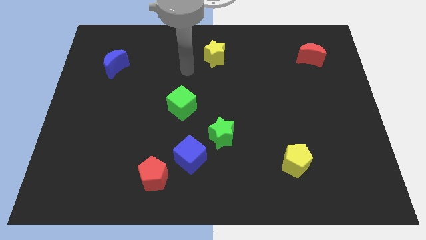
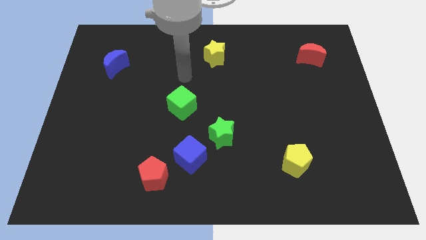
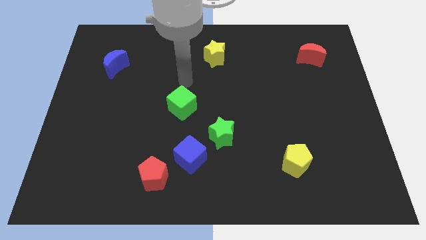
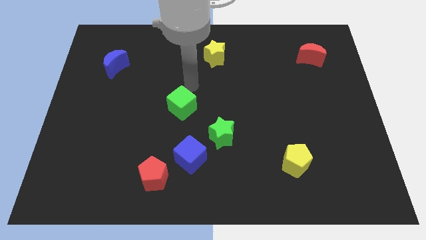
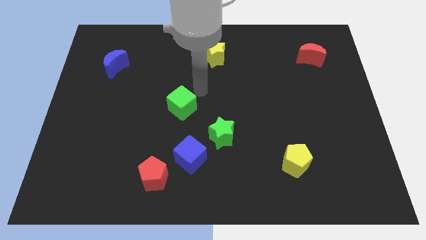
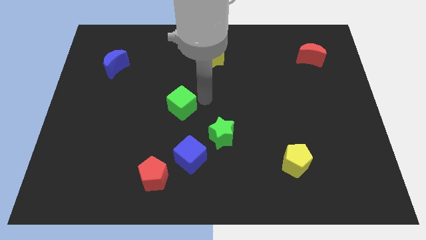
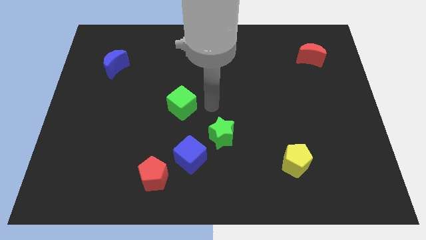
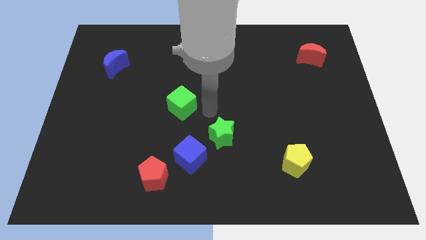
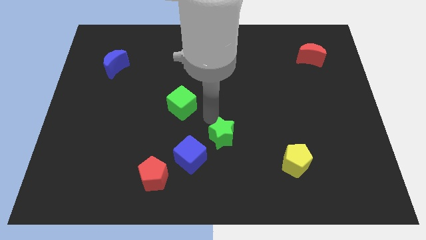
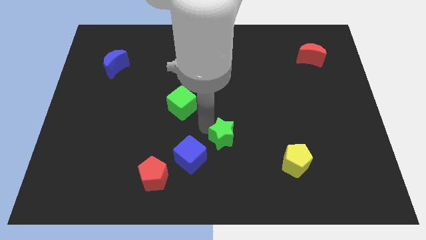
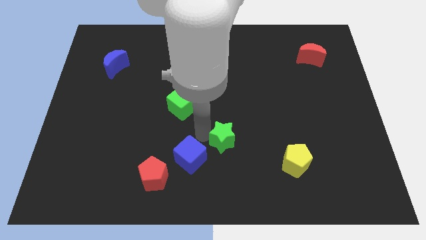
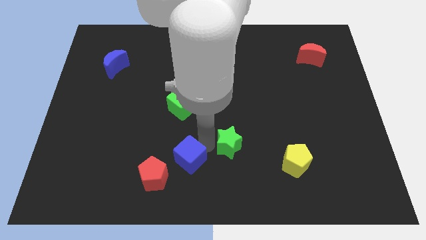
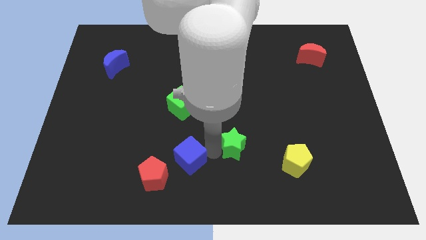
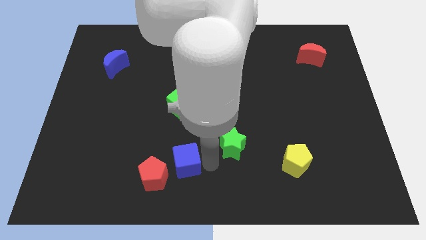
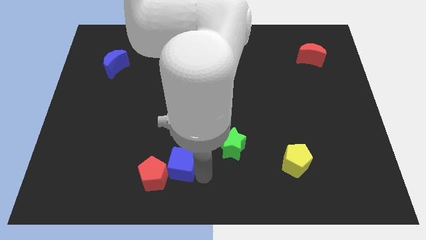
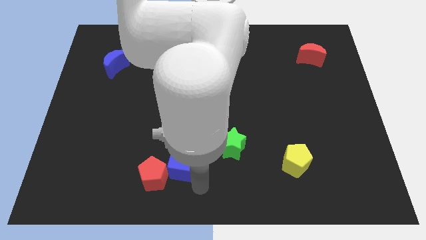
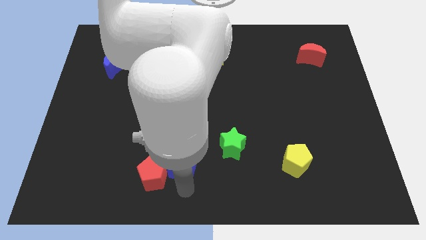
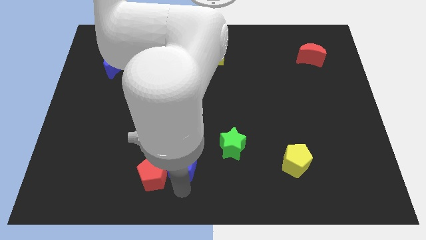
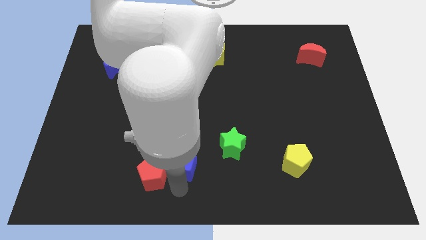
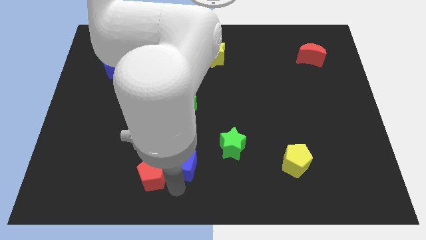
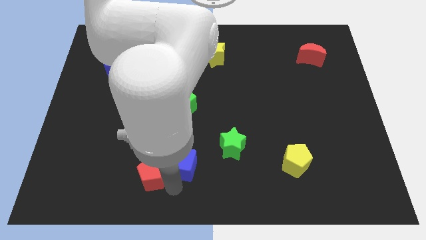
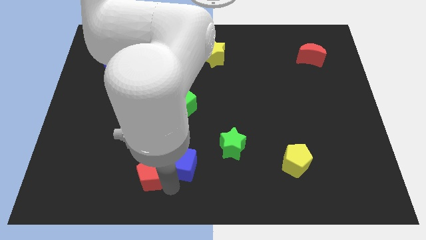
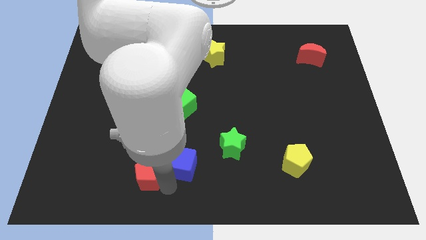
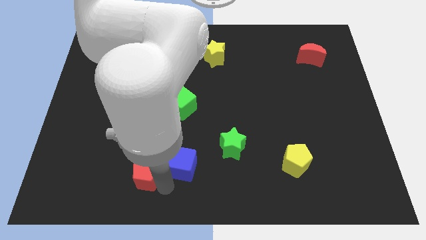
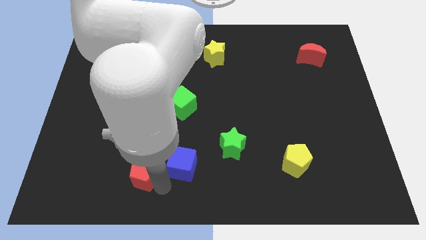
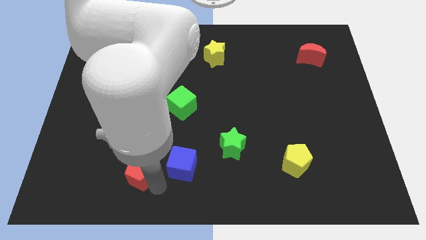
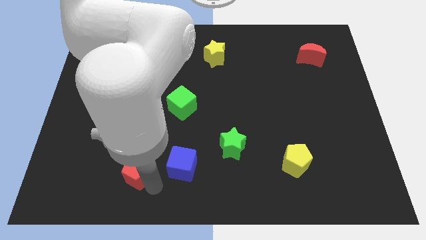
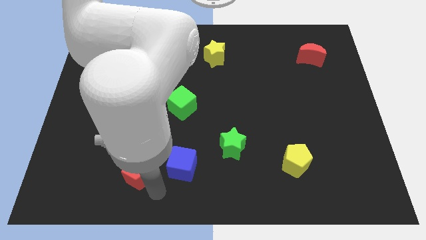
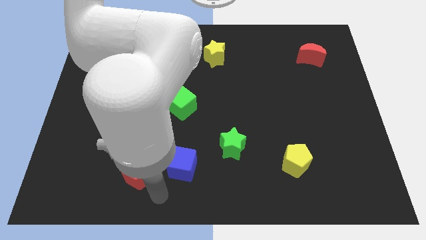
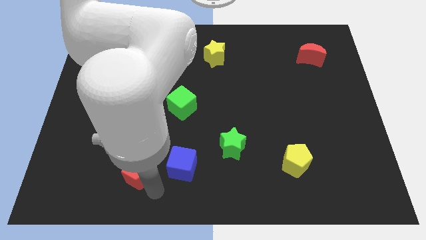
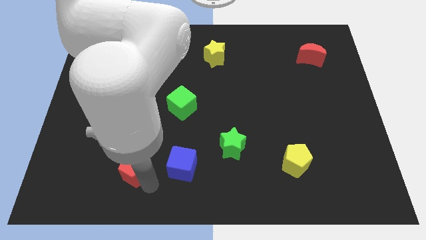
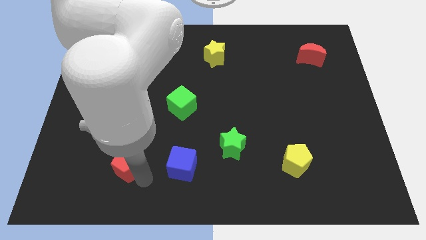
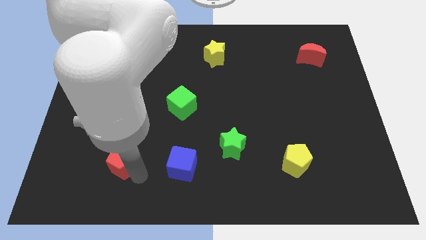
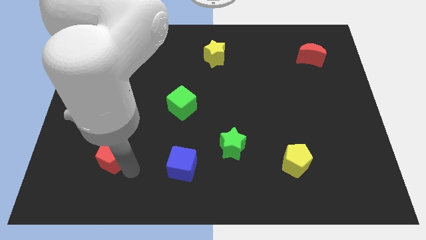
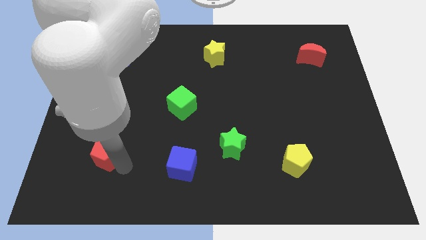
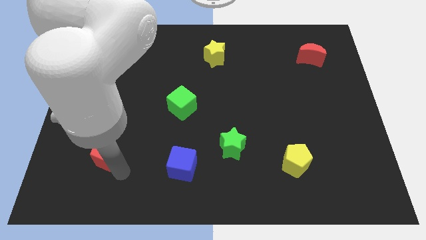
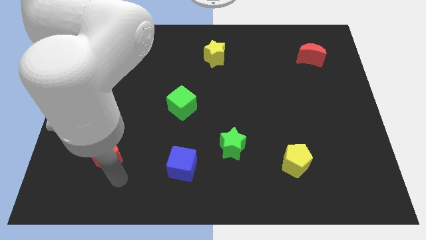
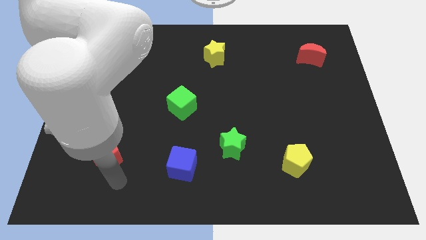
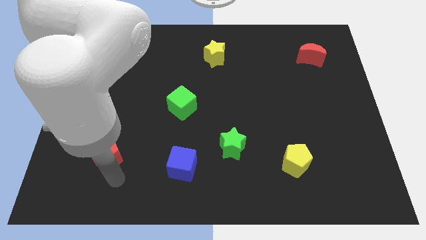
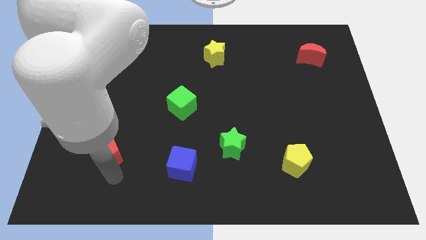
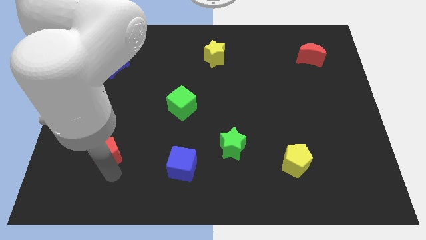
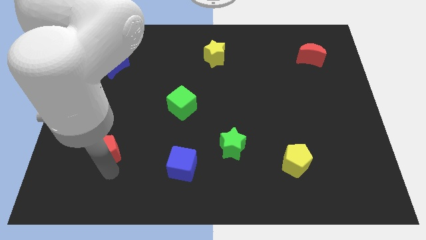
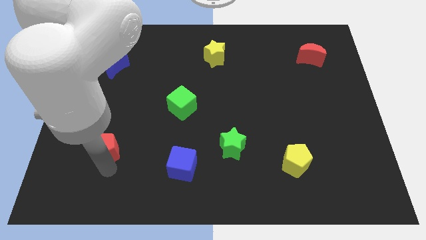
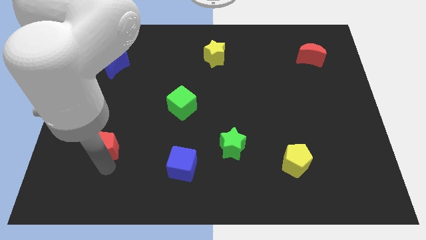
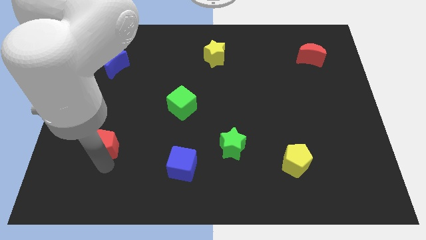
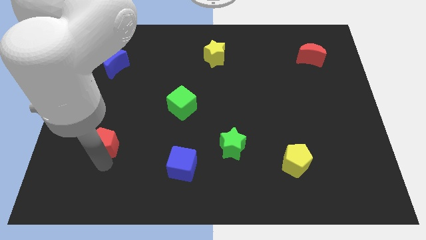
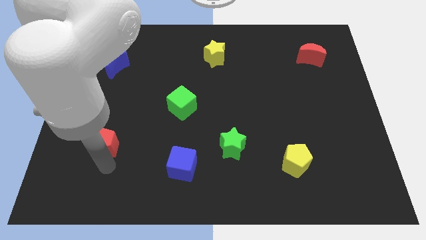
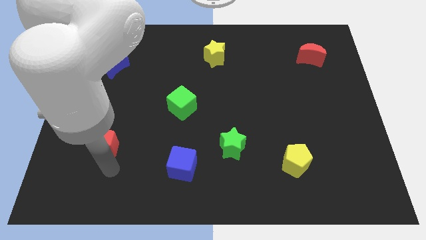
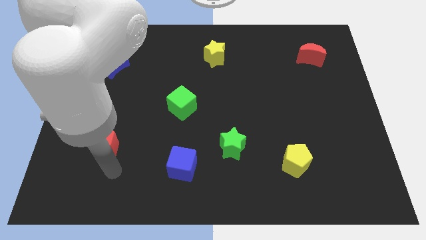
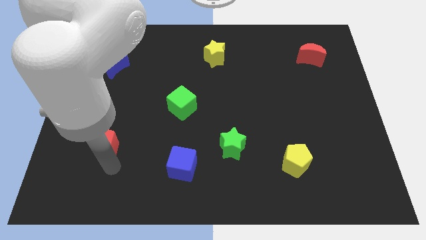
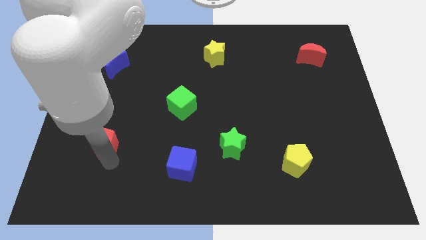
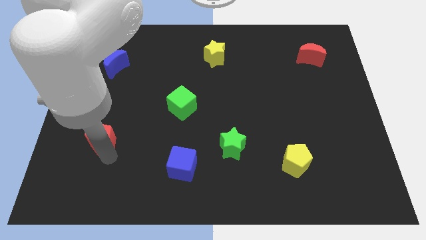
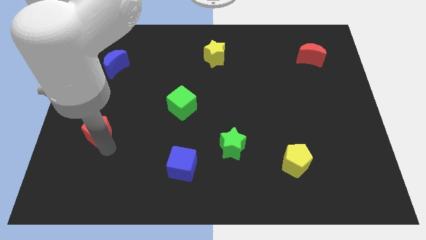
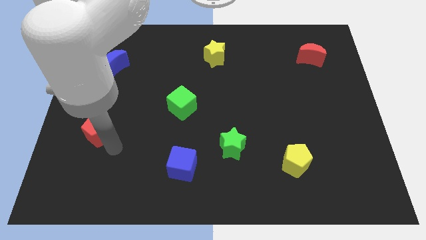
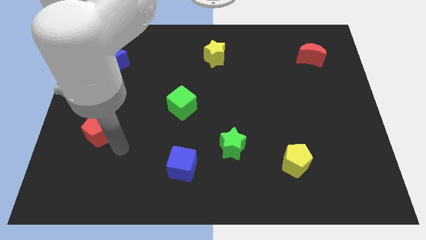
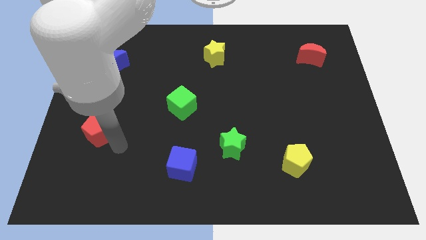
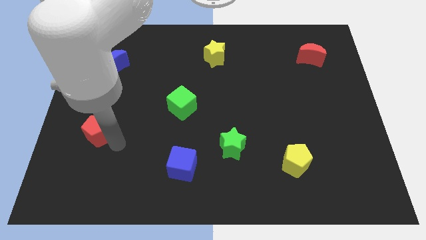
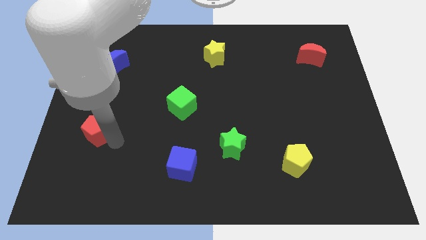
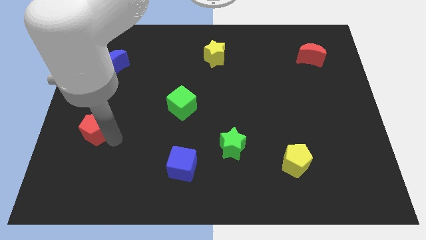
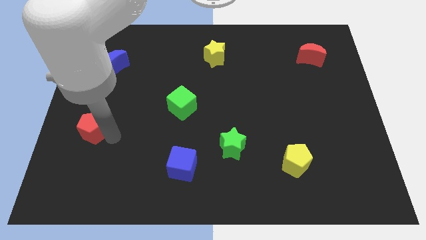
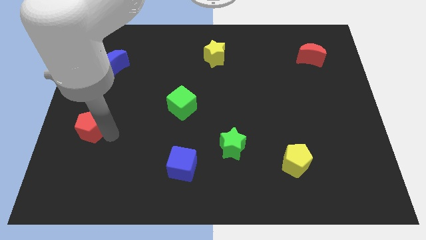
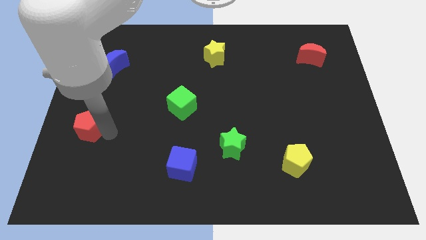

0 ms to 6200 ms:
slide the red pentagon to the center left

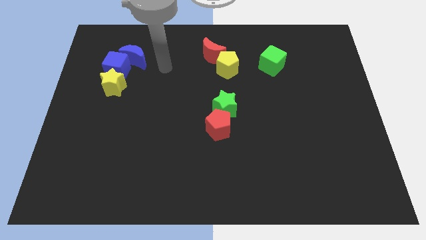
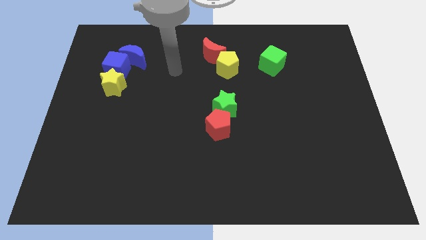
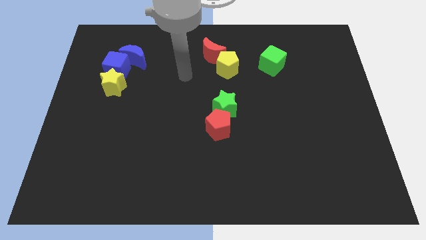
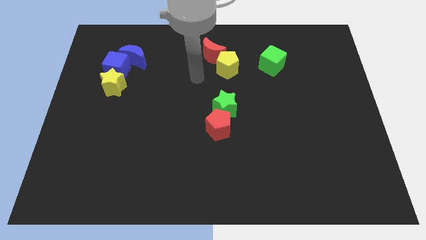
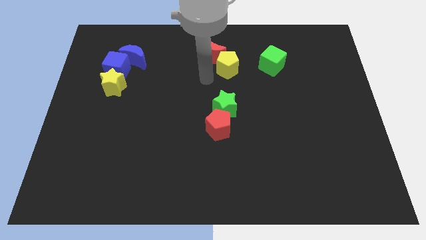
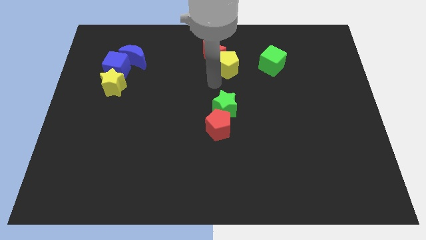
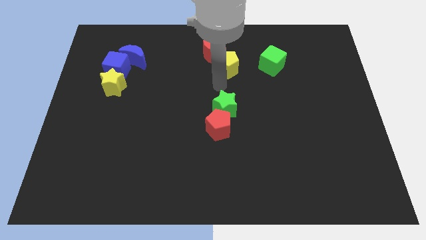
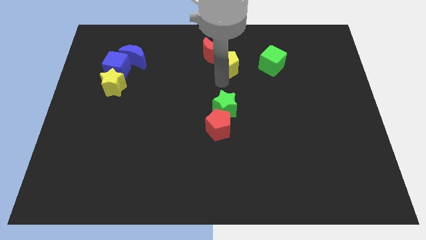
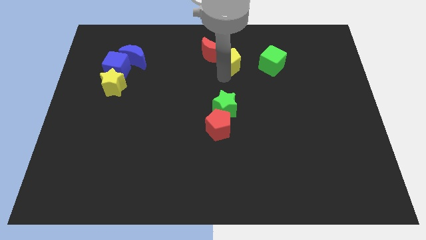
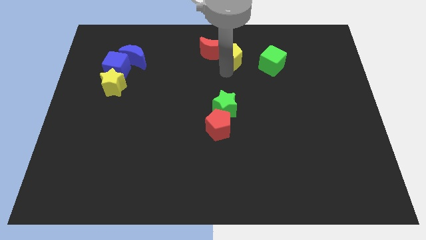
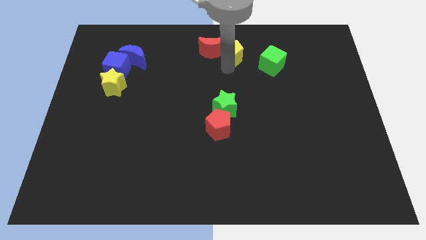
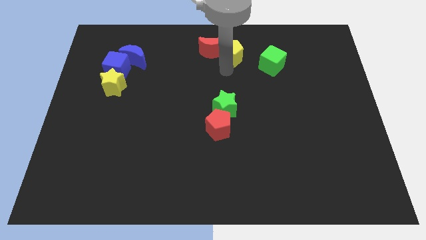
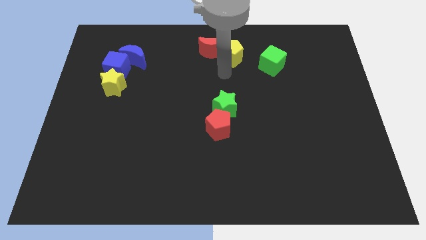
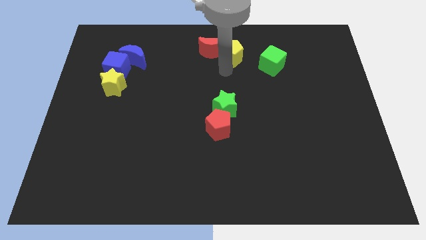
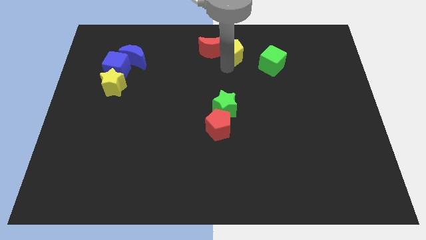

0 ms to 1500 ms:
push the yellow pentagon to the top side
